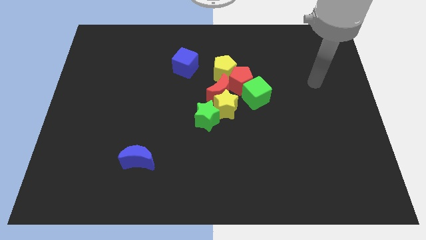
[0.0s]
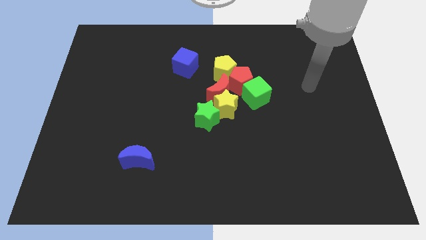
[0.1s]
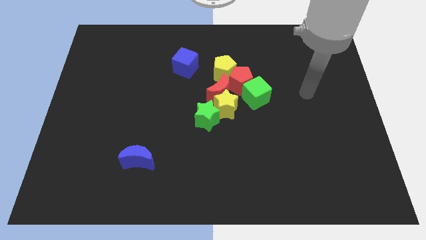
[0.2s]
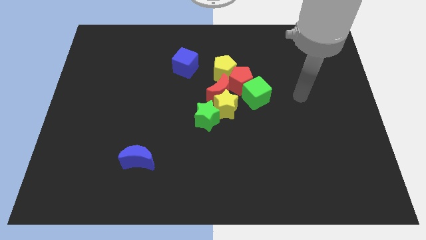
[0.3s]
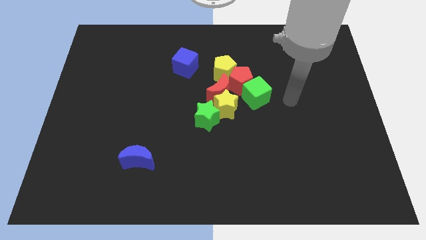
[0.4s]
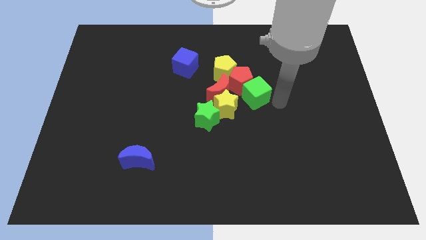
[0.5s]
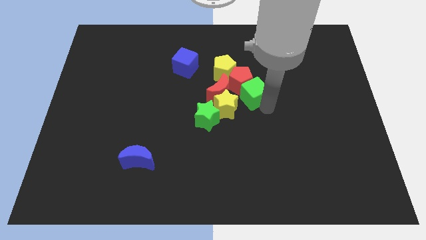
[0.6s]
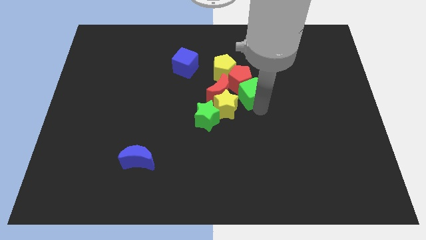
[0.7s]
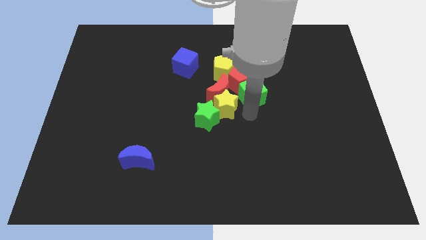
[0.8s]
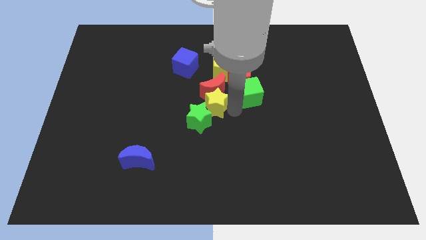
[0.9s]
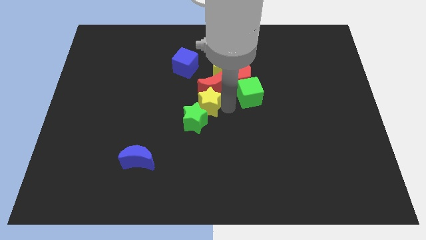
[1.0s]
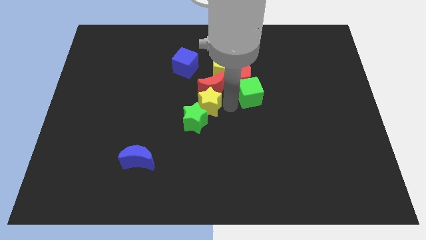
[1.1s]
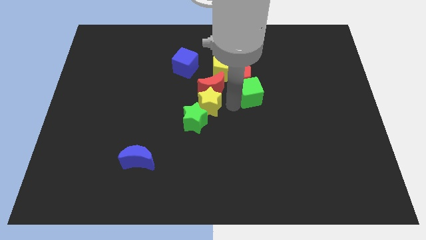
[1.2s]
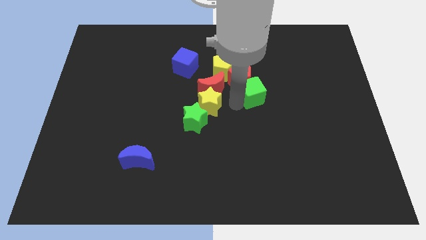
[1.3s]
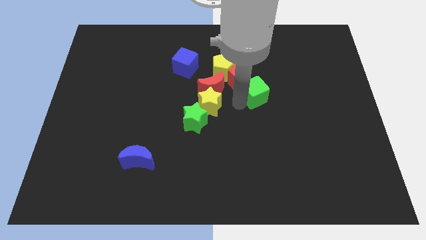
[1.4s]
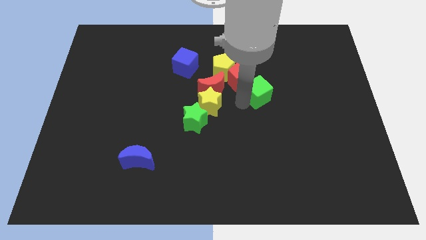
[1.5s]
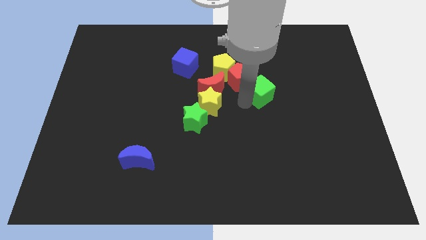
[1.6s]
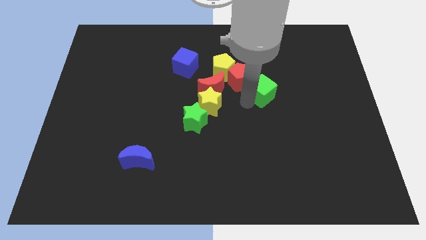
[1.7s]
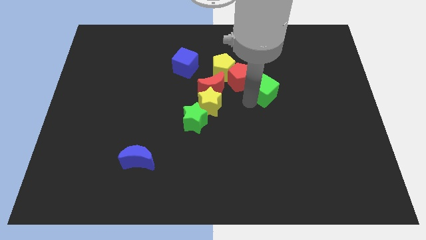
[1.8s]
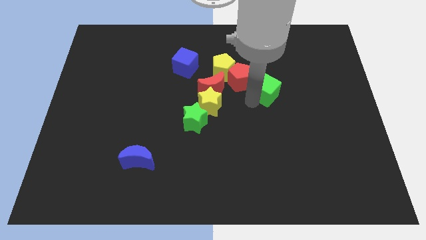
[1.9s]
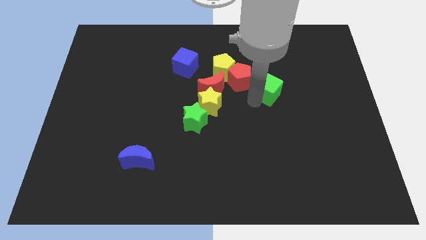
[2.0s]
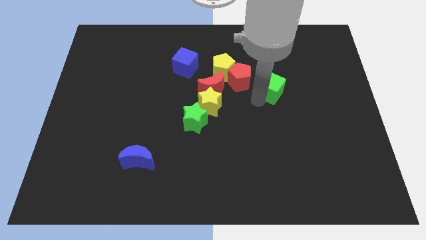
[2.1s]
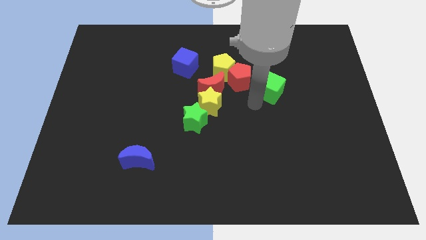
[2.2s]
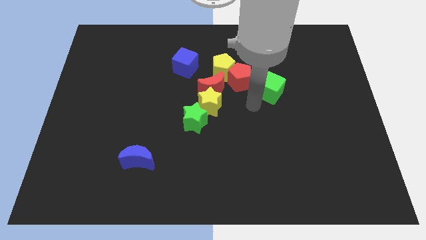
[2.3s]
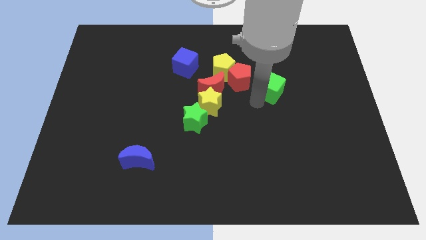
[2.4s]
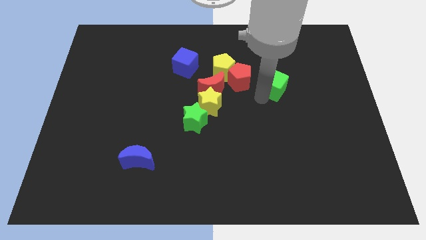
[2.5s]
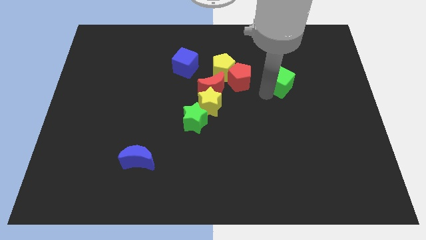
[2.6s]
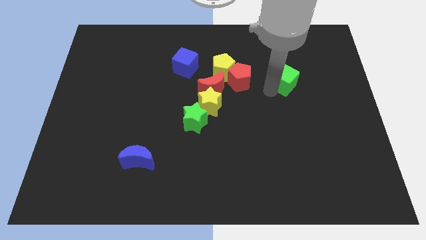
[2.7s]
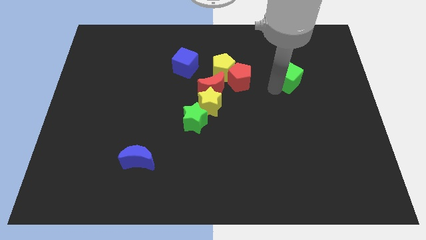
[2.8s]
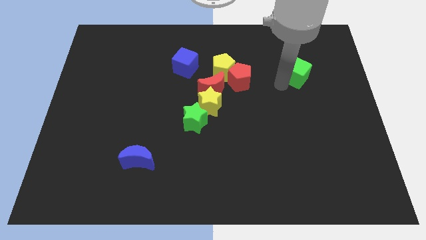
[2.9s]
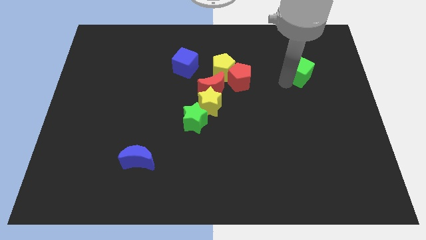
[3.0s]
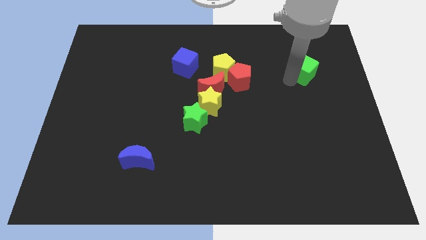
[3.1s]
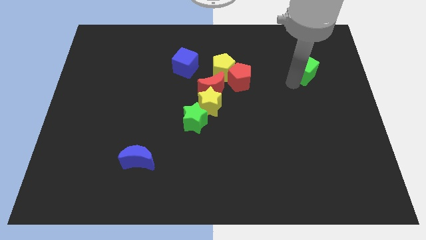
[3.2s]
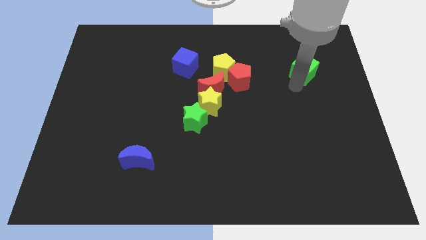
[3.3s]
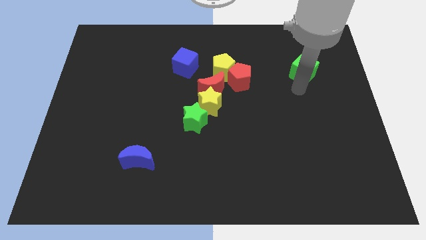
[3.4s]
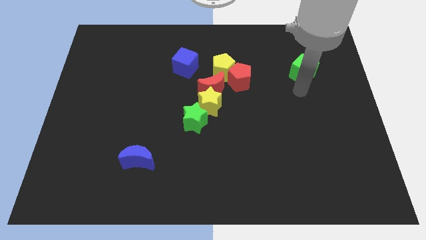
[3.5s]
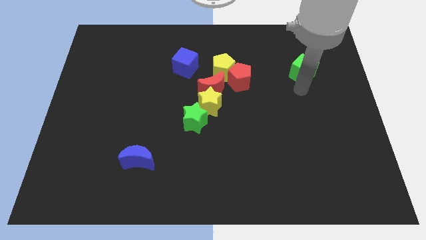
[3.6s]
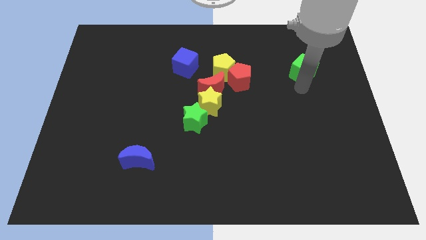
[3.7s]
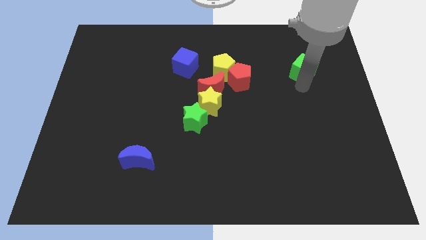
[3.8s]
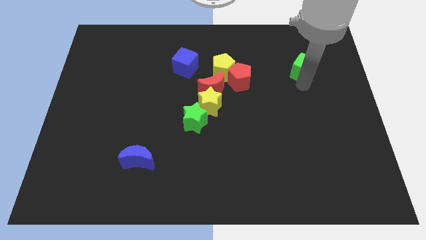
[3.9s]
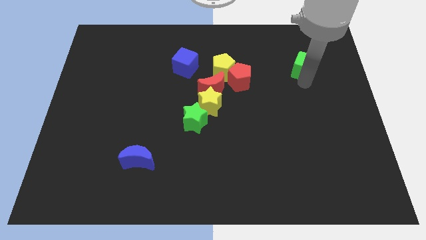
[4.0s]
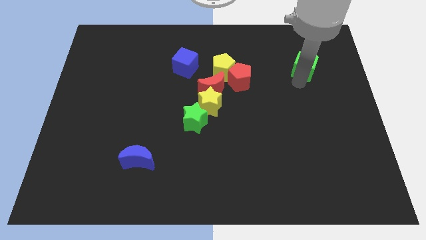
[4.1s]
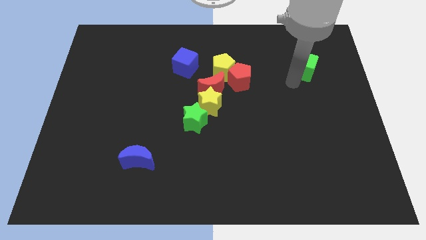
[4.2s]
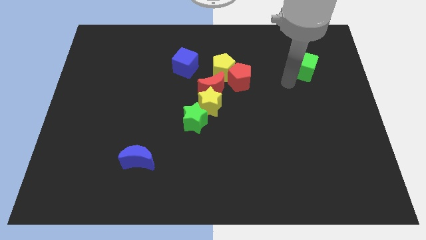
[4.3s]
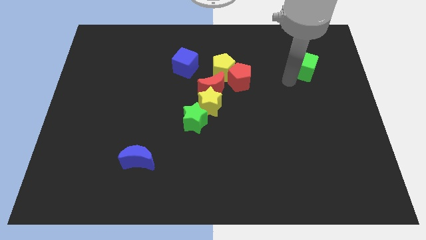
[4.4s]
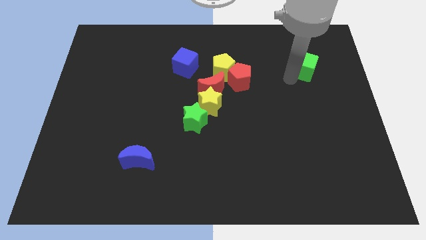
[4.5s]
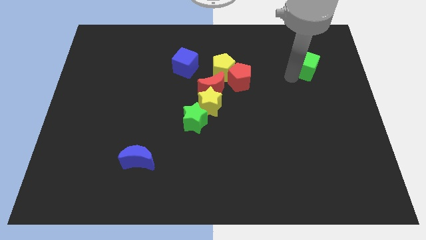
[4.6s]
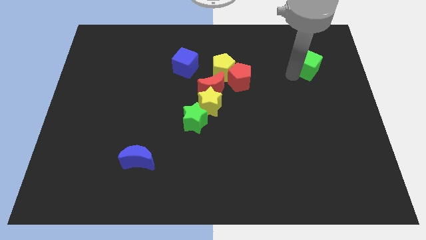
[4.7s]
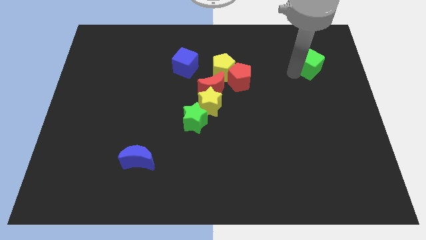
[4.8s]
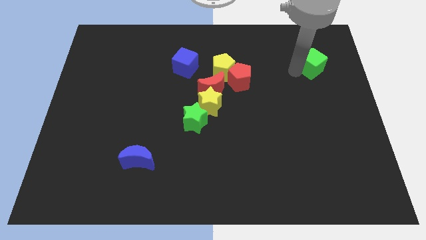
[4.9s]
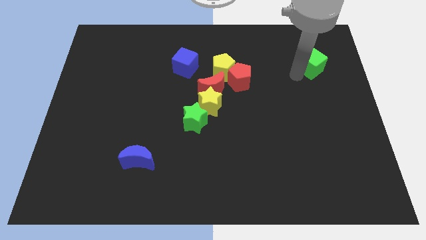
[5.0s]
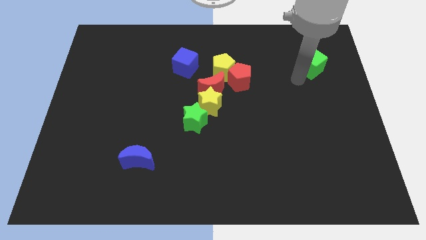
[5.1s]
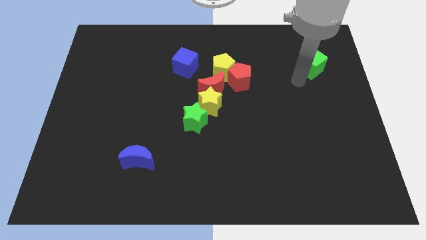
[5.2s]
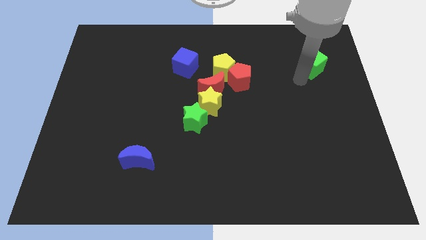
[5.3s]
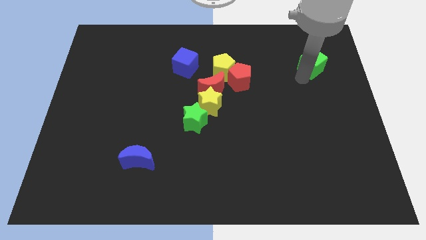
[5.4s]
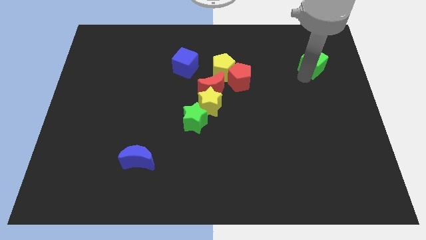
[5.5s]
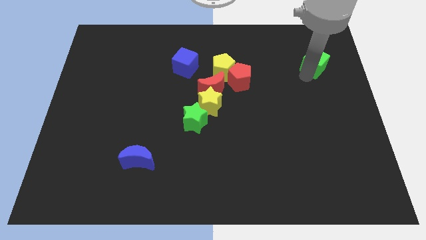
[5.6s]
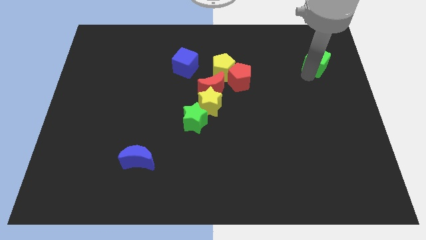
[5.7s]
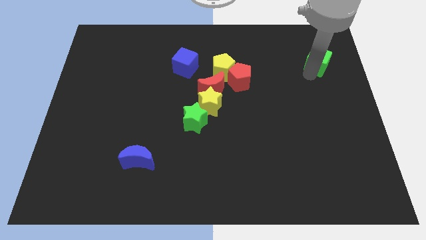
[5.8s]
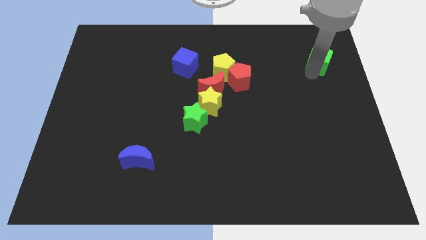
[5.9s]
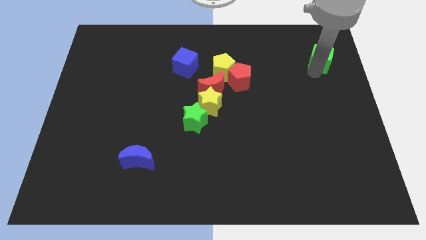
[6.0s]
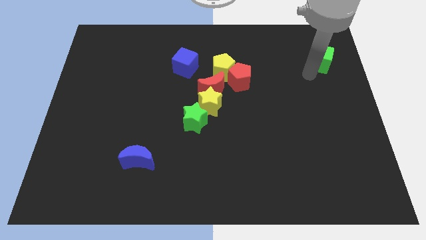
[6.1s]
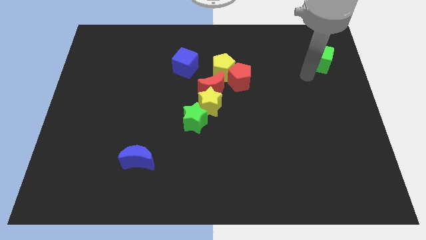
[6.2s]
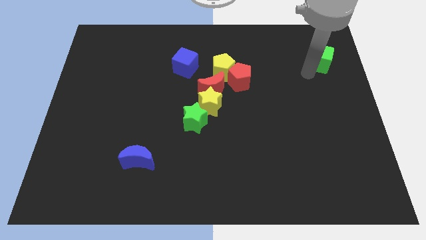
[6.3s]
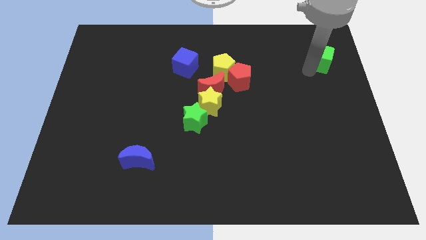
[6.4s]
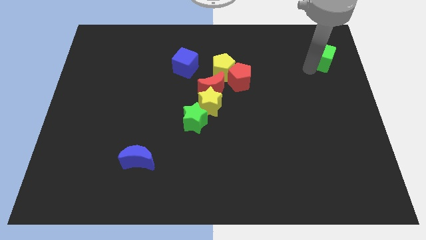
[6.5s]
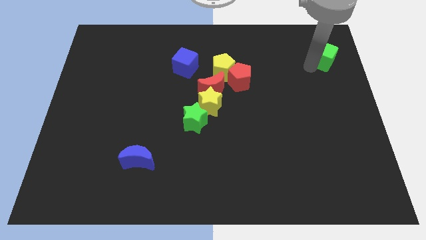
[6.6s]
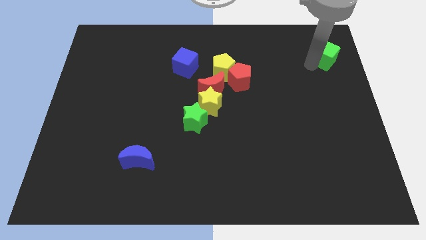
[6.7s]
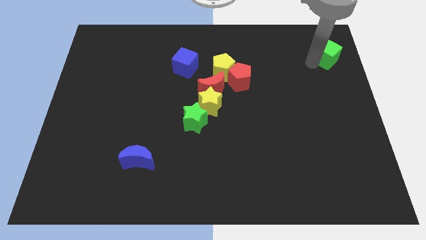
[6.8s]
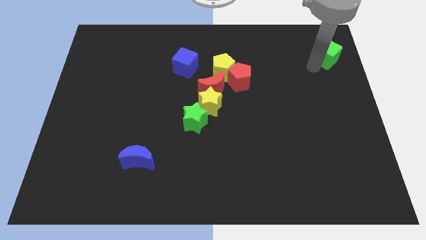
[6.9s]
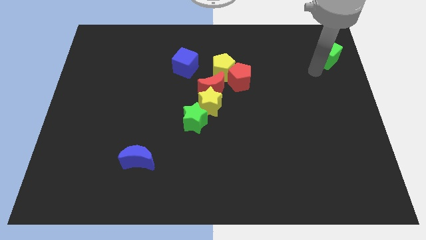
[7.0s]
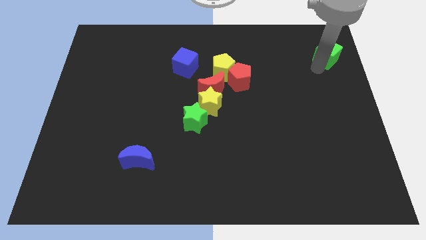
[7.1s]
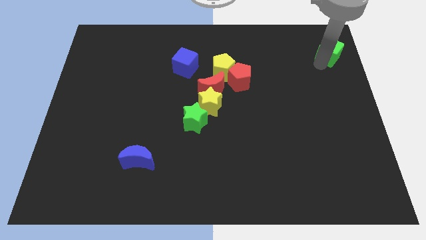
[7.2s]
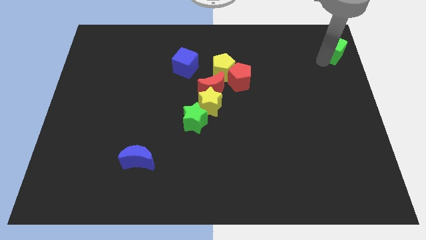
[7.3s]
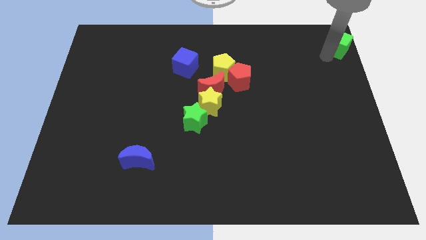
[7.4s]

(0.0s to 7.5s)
put the green cube to the top right of the board
